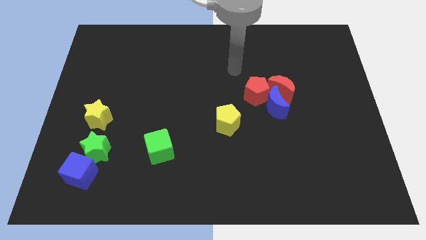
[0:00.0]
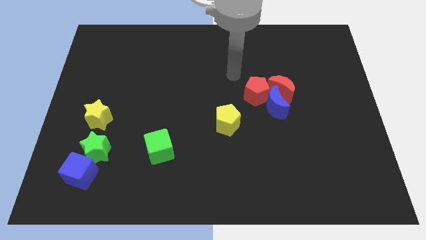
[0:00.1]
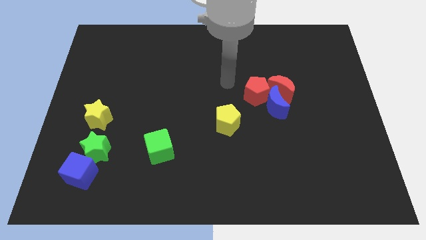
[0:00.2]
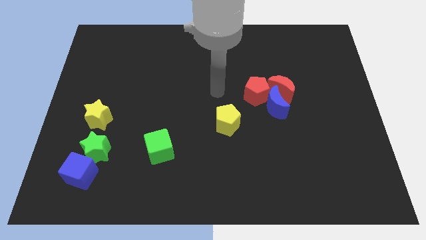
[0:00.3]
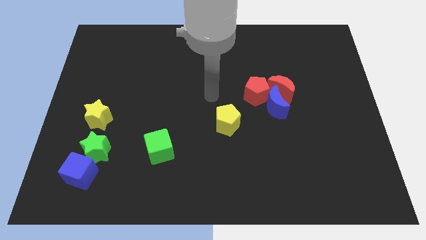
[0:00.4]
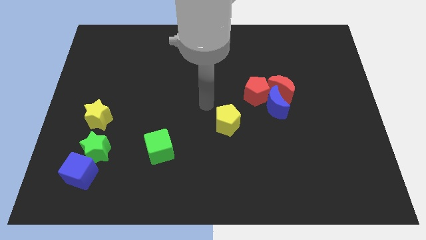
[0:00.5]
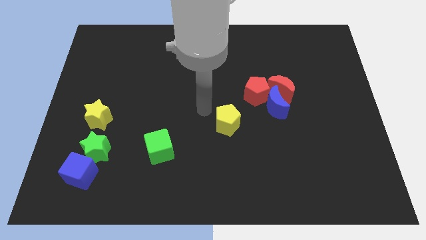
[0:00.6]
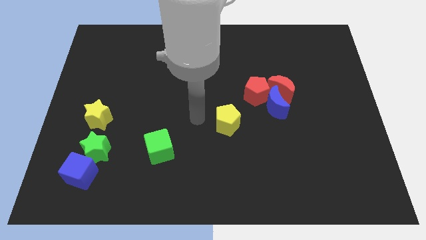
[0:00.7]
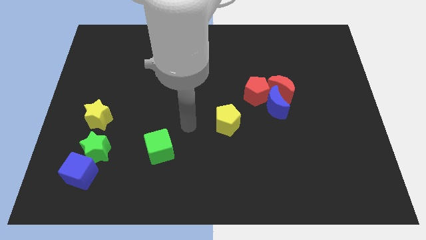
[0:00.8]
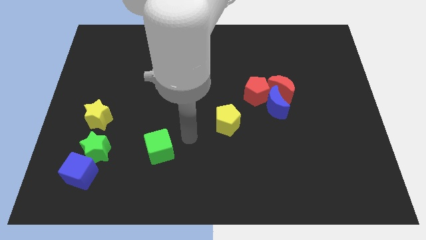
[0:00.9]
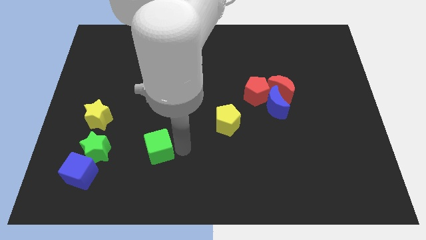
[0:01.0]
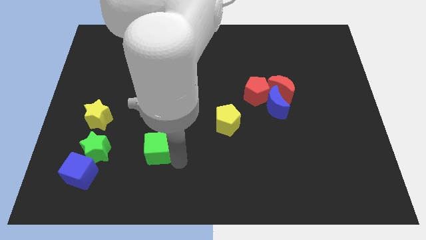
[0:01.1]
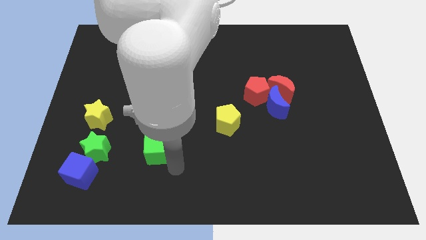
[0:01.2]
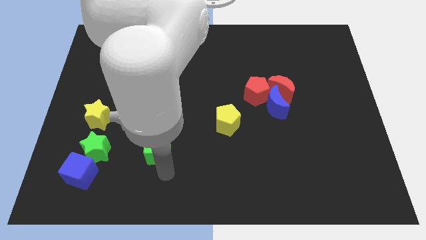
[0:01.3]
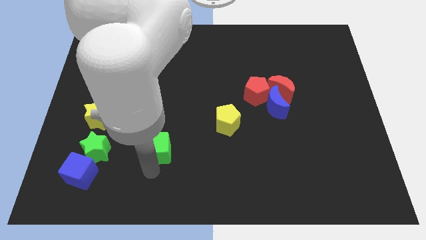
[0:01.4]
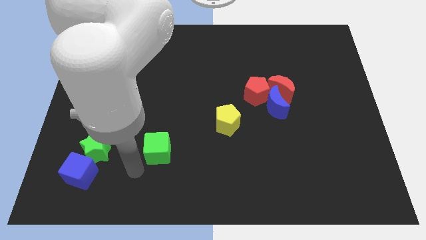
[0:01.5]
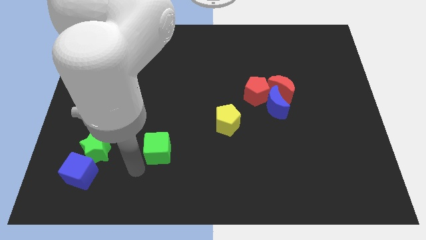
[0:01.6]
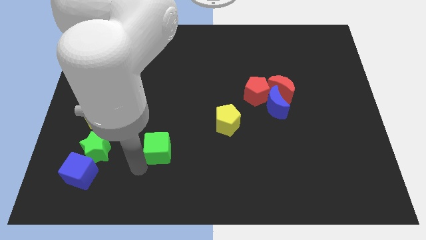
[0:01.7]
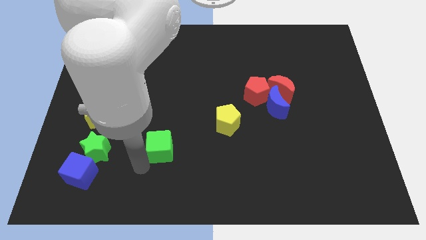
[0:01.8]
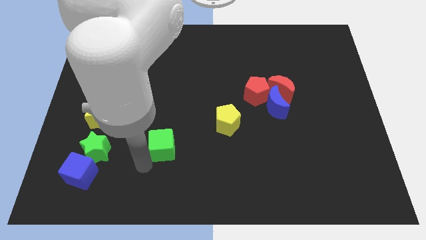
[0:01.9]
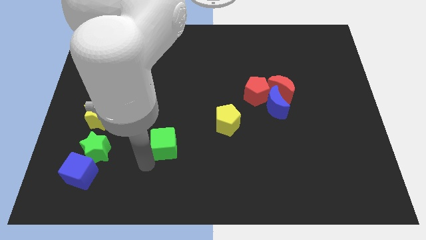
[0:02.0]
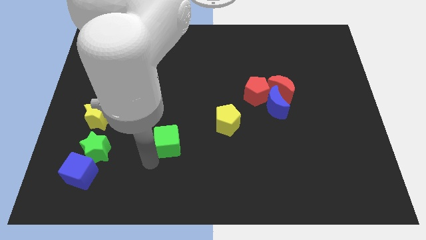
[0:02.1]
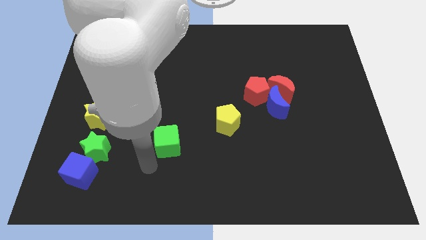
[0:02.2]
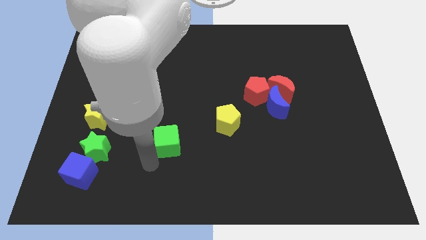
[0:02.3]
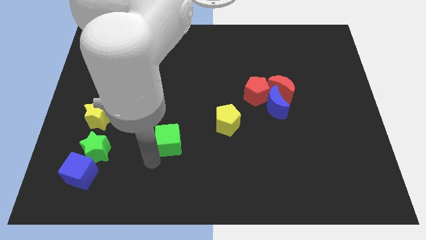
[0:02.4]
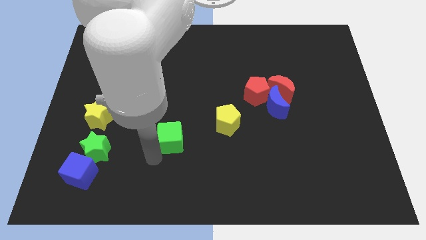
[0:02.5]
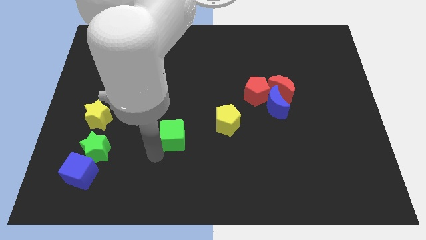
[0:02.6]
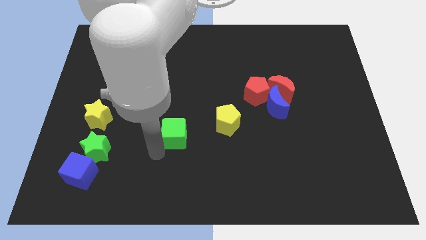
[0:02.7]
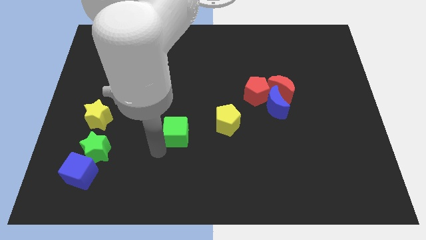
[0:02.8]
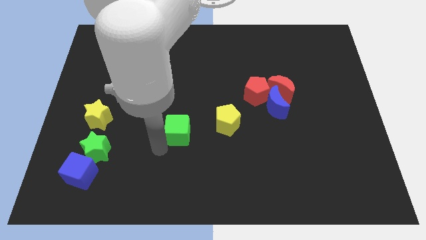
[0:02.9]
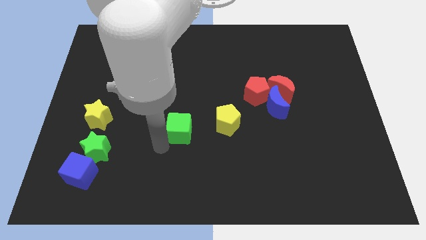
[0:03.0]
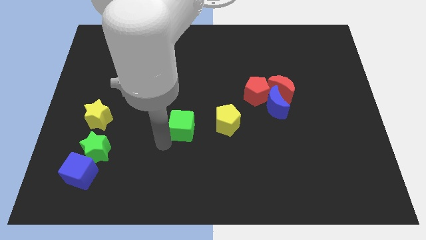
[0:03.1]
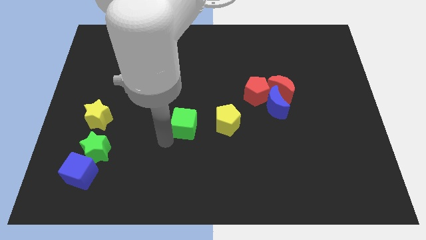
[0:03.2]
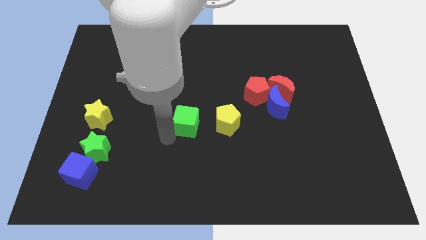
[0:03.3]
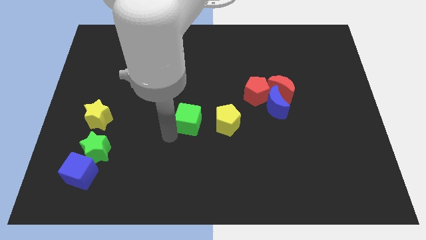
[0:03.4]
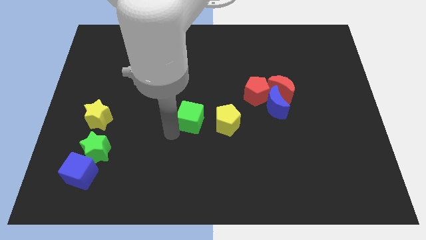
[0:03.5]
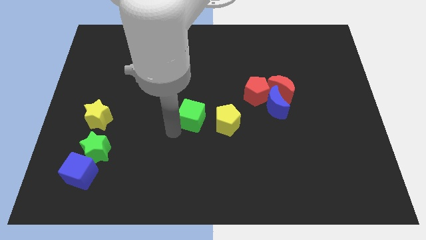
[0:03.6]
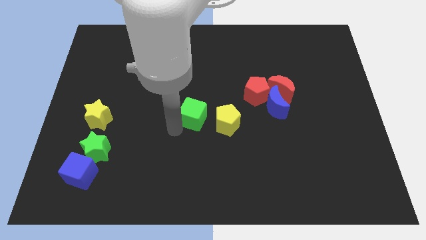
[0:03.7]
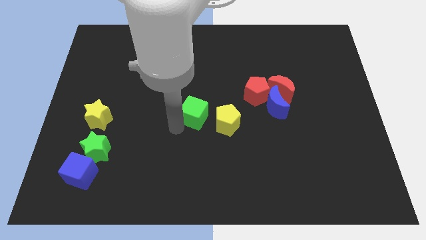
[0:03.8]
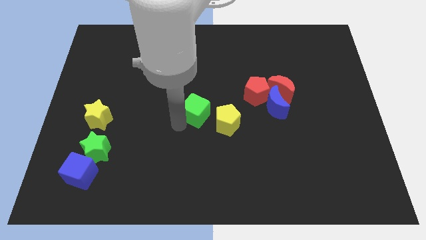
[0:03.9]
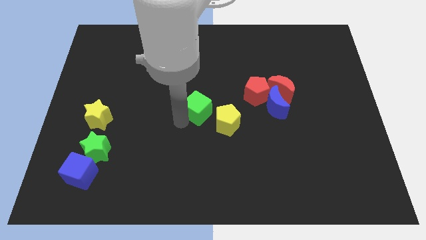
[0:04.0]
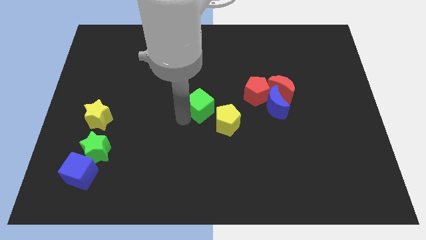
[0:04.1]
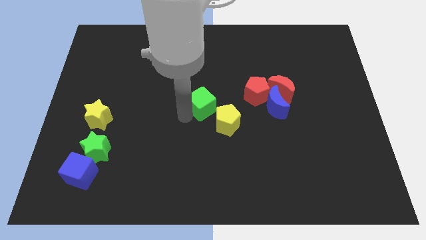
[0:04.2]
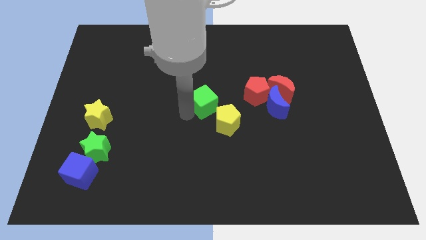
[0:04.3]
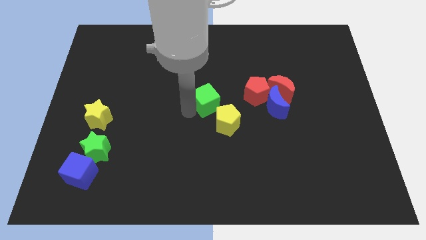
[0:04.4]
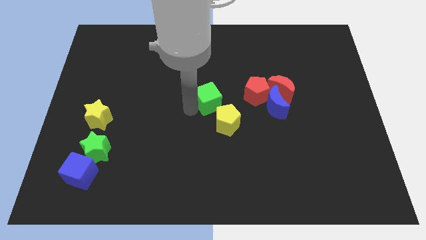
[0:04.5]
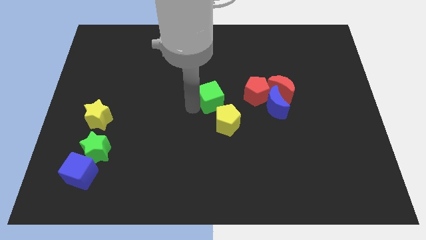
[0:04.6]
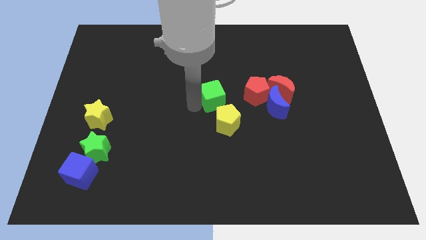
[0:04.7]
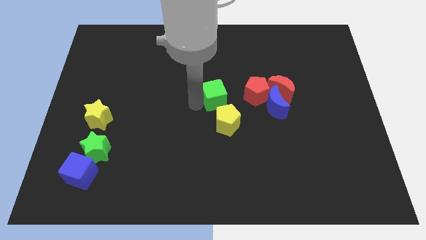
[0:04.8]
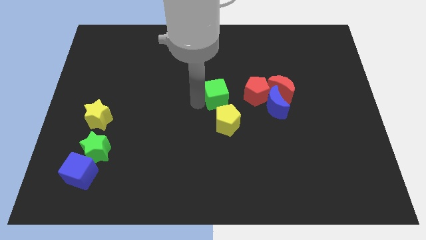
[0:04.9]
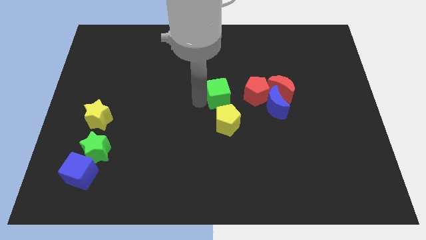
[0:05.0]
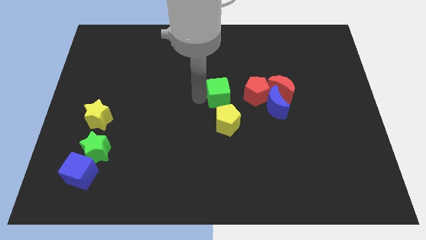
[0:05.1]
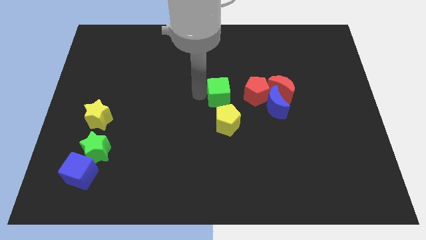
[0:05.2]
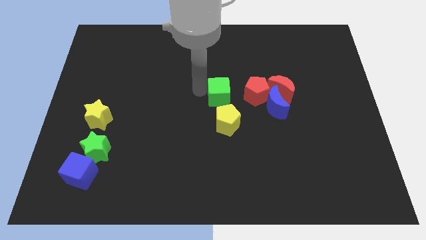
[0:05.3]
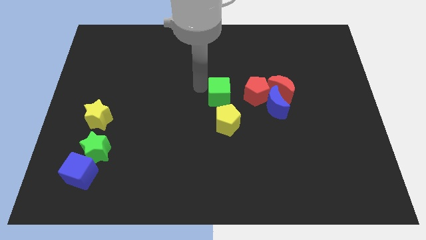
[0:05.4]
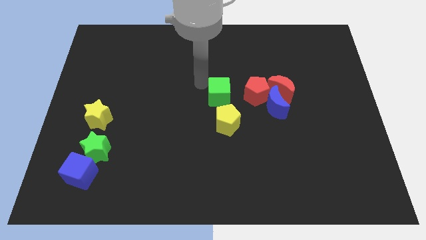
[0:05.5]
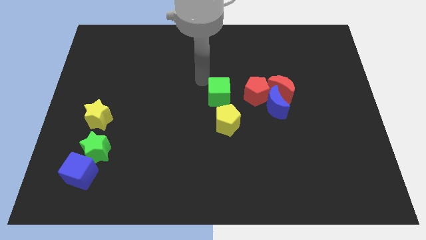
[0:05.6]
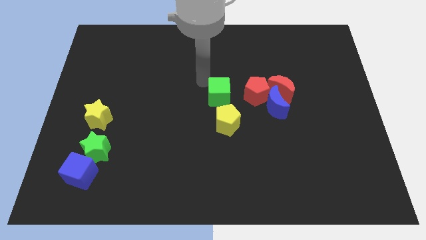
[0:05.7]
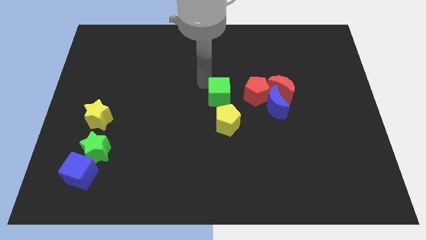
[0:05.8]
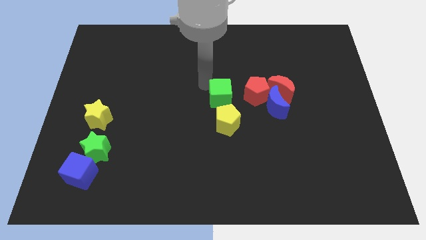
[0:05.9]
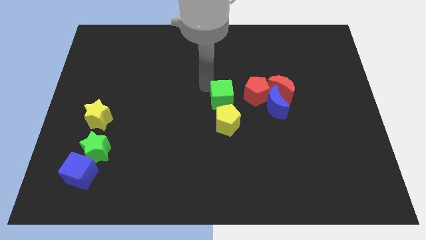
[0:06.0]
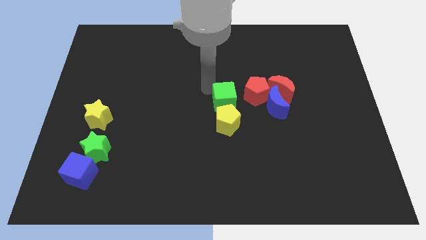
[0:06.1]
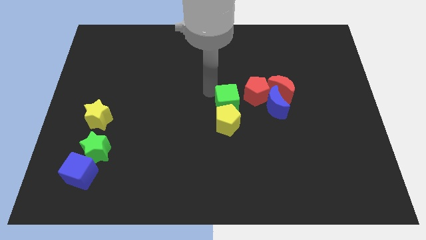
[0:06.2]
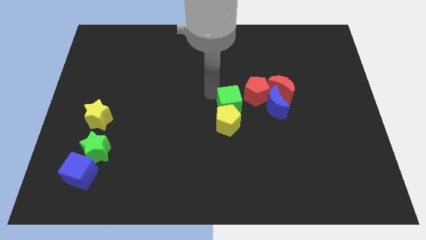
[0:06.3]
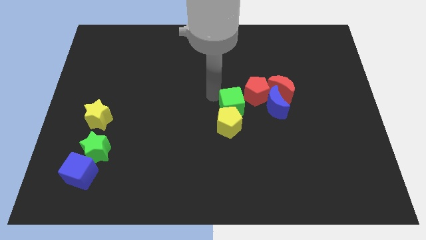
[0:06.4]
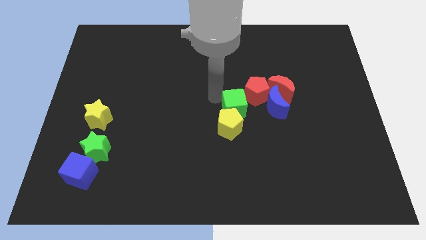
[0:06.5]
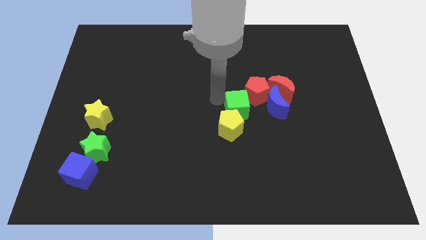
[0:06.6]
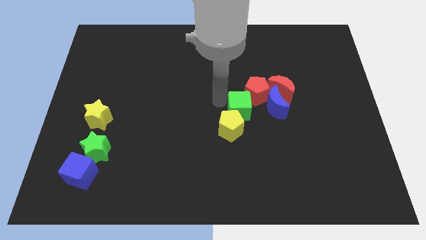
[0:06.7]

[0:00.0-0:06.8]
put the green cube towards the red pentagon
